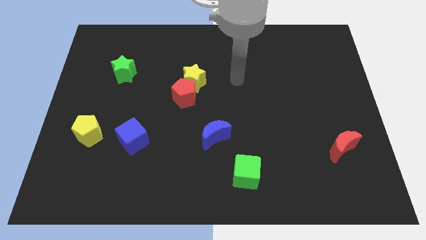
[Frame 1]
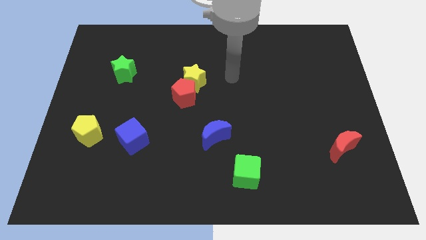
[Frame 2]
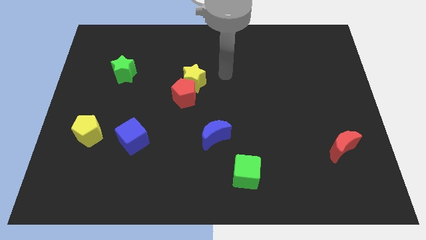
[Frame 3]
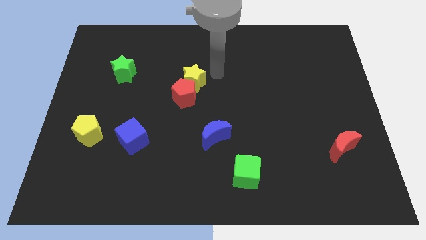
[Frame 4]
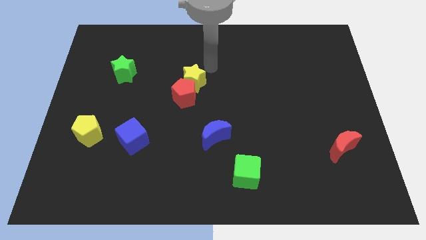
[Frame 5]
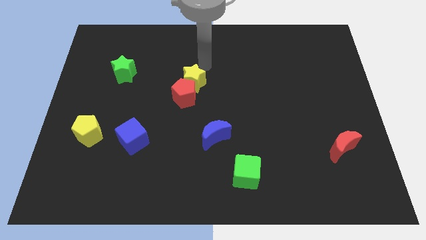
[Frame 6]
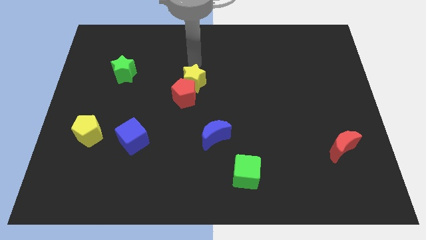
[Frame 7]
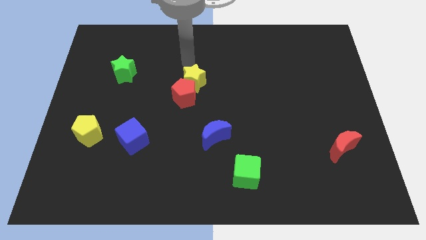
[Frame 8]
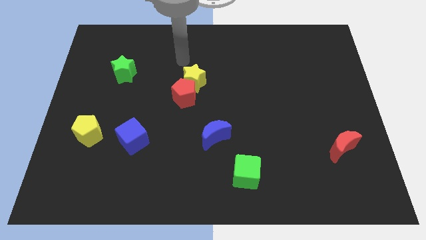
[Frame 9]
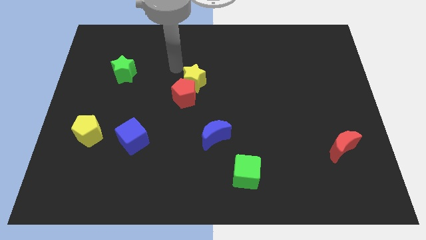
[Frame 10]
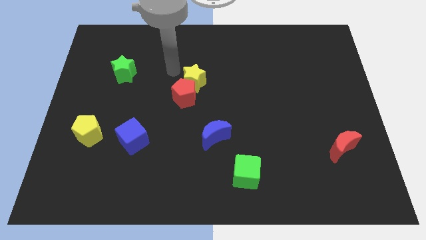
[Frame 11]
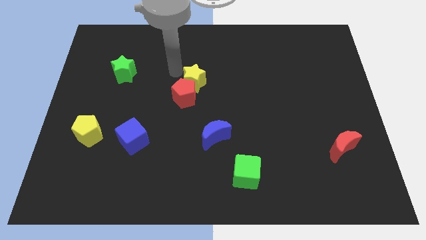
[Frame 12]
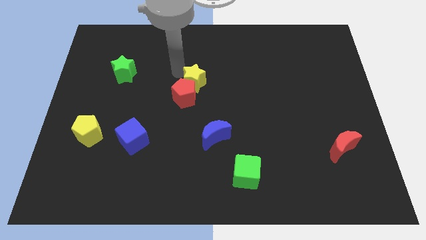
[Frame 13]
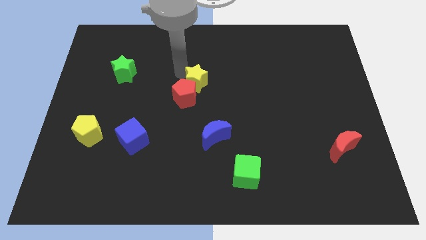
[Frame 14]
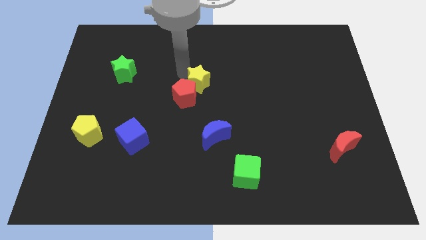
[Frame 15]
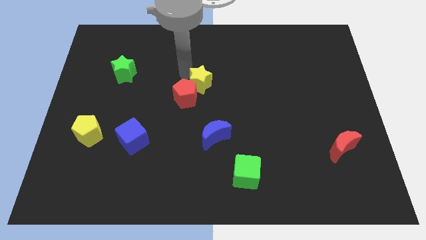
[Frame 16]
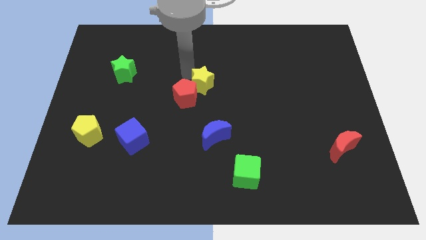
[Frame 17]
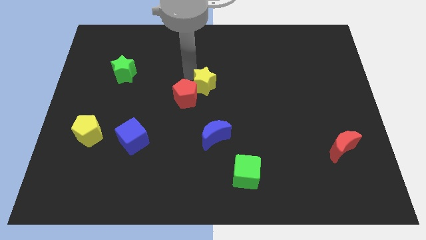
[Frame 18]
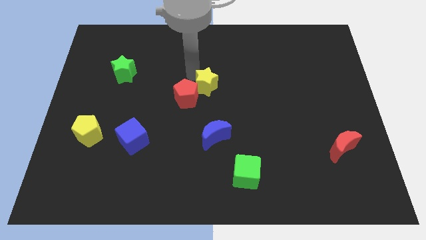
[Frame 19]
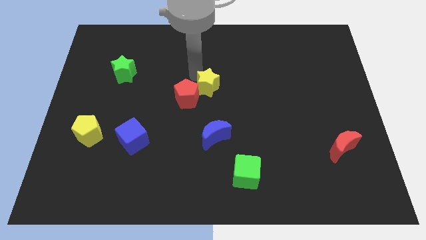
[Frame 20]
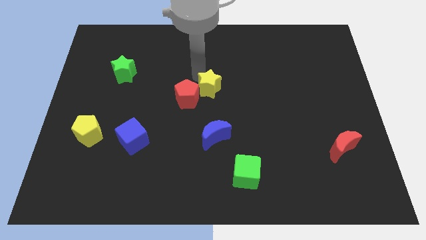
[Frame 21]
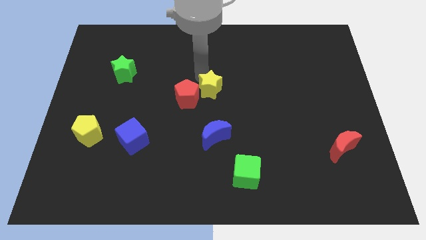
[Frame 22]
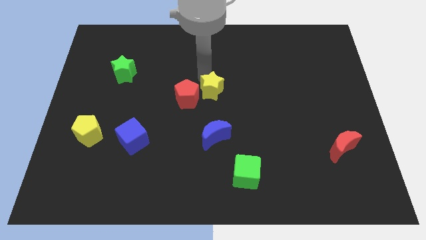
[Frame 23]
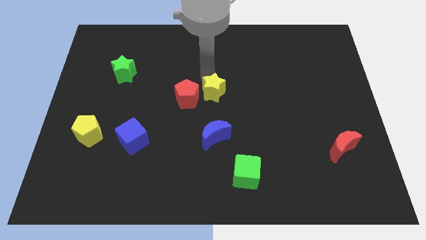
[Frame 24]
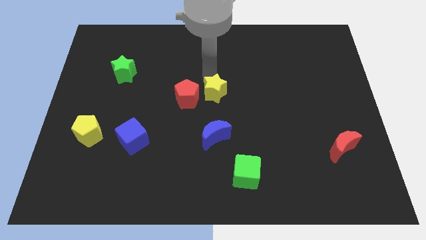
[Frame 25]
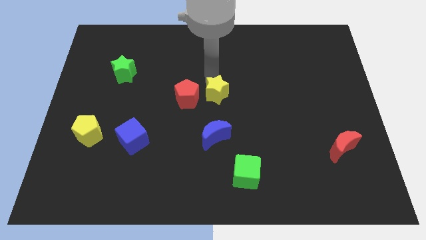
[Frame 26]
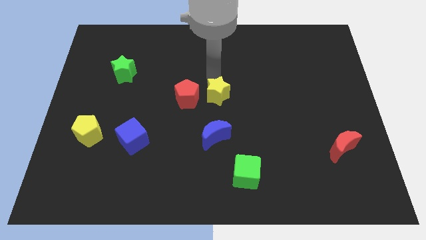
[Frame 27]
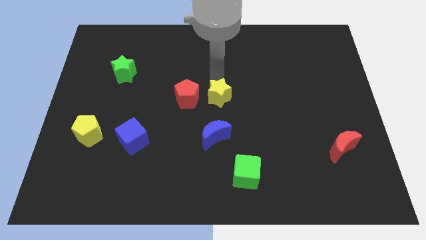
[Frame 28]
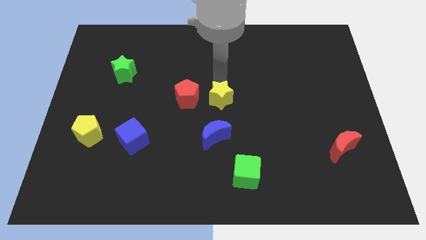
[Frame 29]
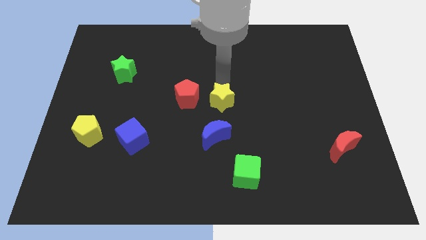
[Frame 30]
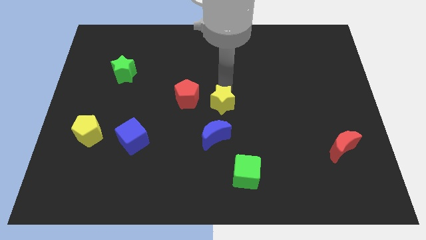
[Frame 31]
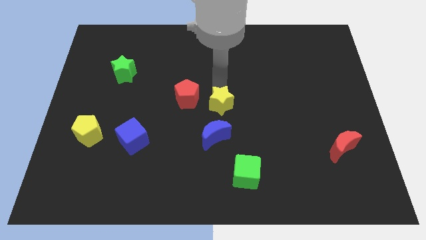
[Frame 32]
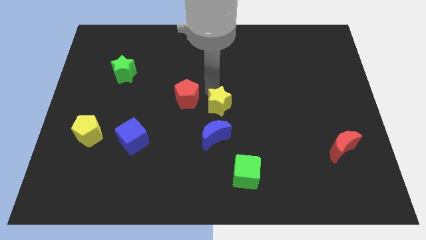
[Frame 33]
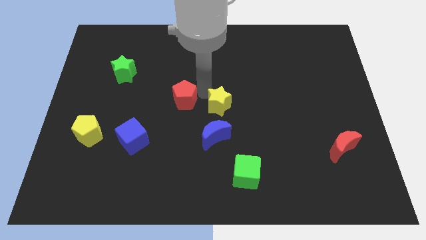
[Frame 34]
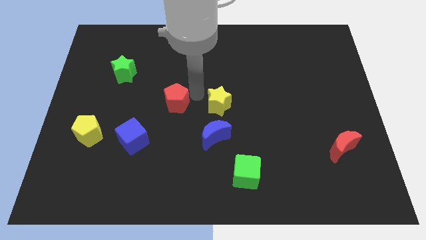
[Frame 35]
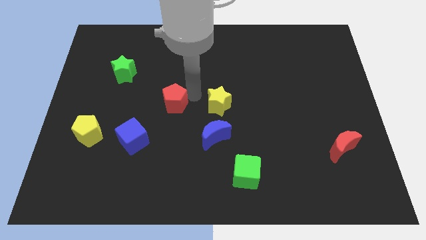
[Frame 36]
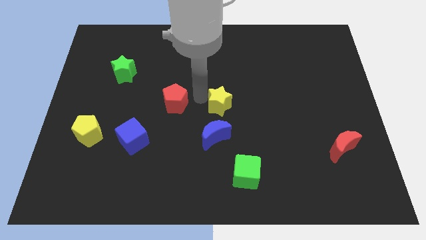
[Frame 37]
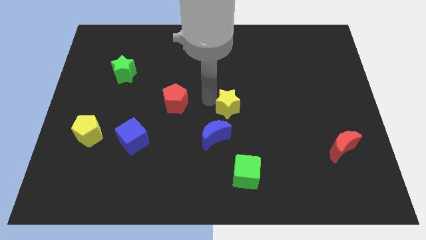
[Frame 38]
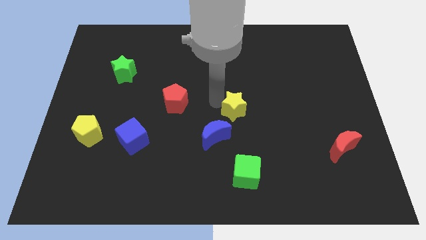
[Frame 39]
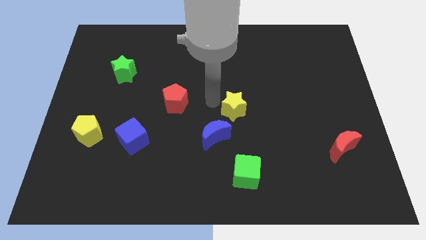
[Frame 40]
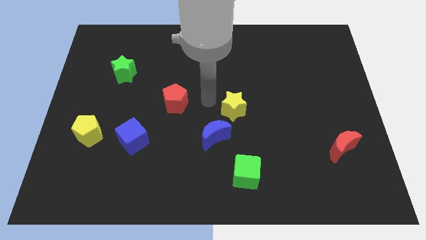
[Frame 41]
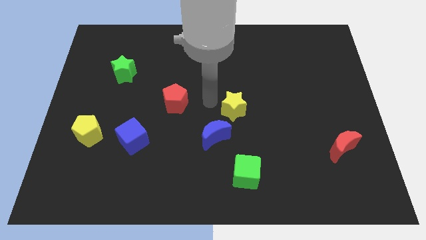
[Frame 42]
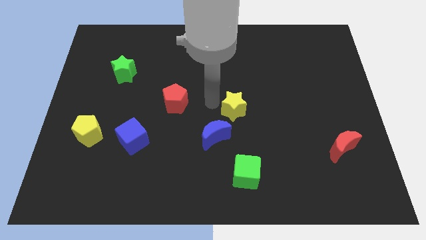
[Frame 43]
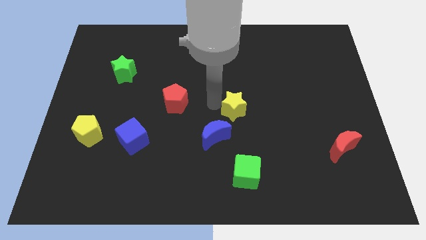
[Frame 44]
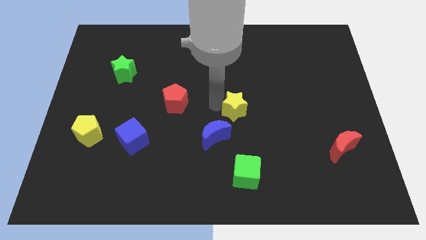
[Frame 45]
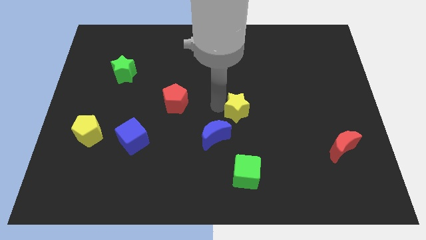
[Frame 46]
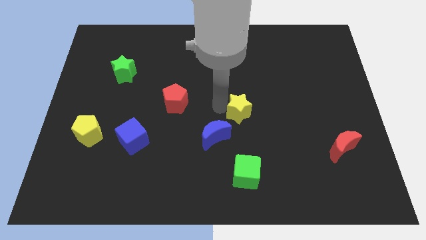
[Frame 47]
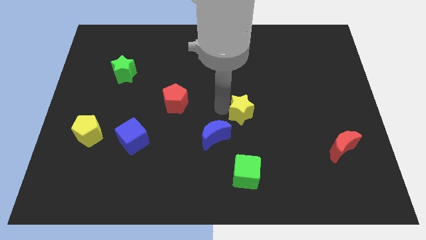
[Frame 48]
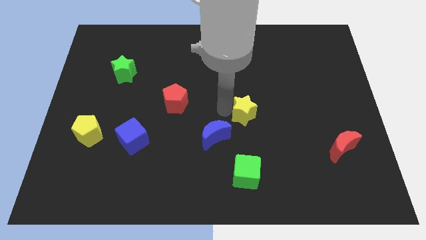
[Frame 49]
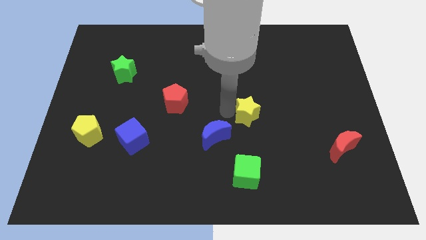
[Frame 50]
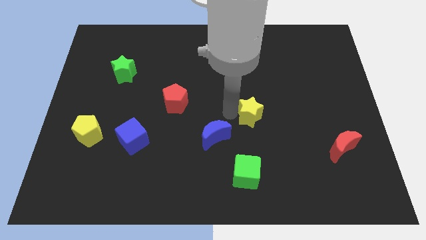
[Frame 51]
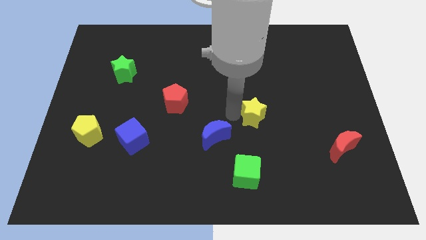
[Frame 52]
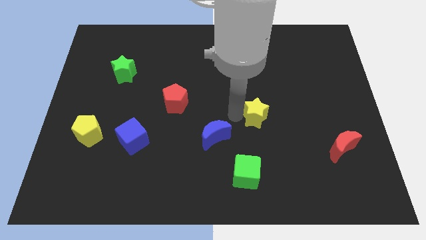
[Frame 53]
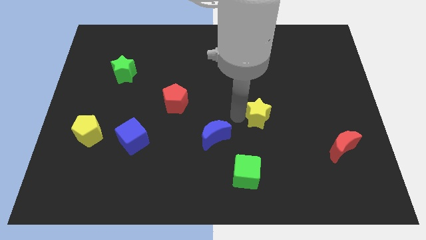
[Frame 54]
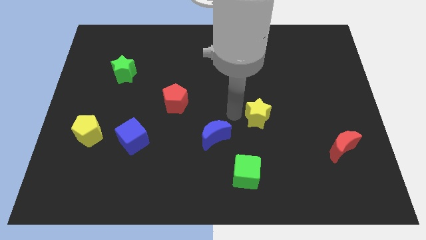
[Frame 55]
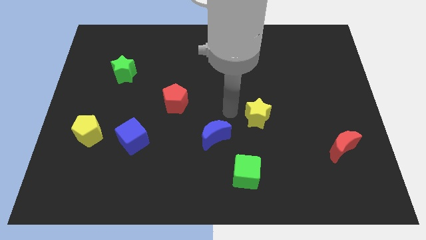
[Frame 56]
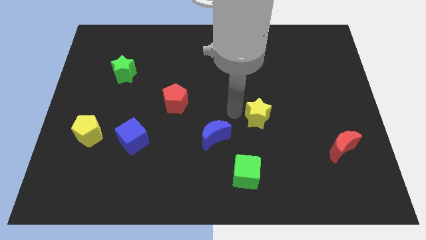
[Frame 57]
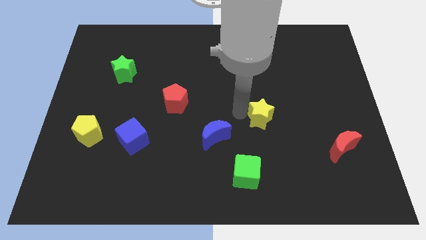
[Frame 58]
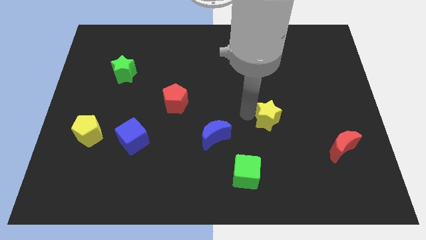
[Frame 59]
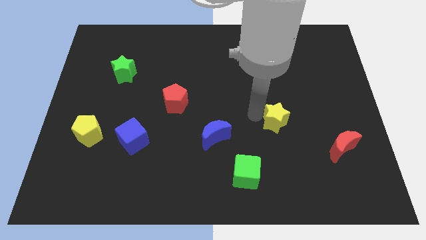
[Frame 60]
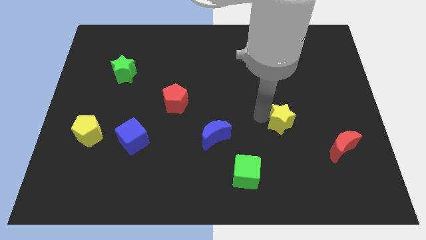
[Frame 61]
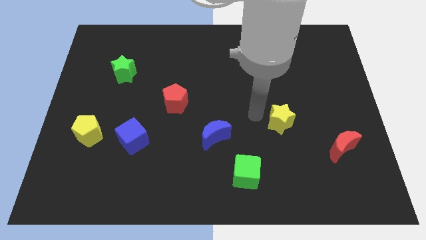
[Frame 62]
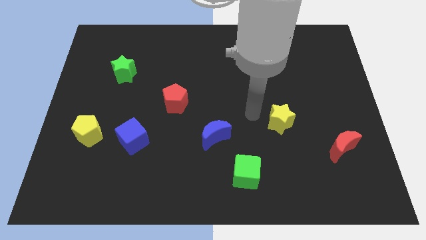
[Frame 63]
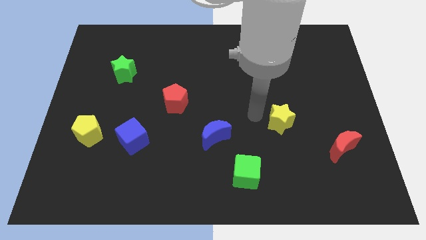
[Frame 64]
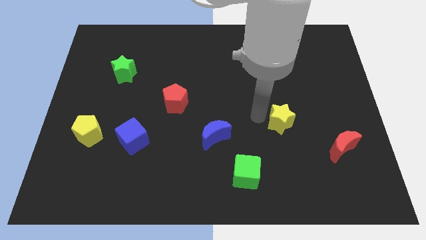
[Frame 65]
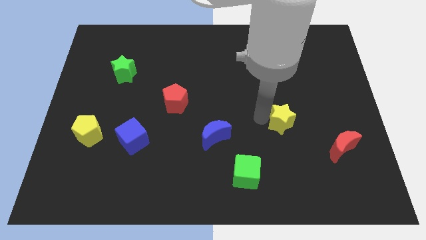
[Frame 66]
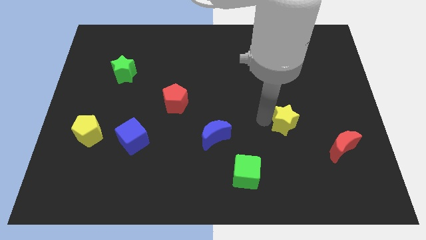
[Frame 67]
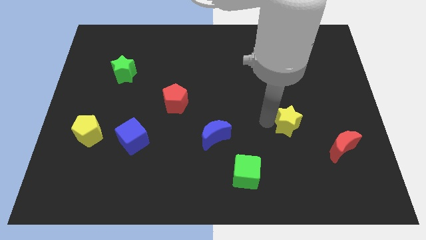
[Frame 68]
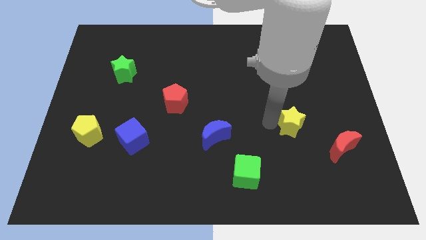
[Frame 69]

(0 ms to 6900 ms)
push the yellow star diagonally up and to the left of the red moon

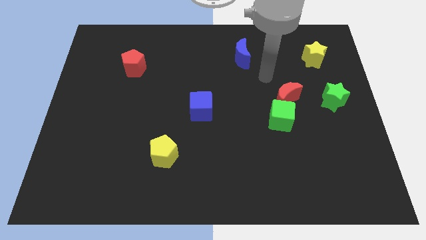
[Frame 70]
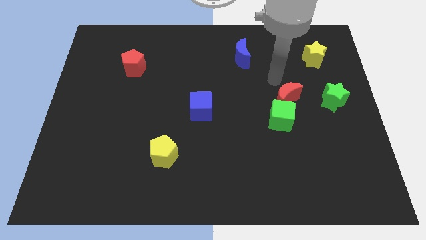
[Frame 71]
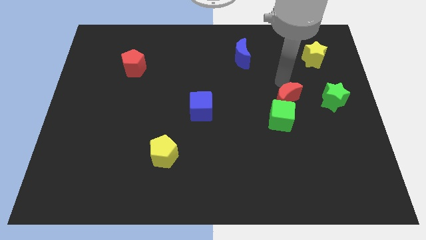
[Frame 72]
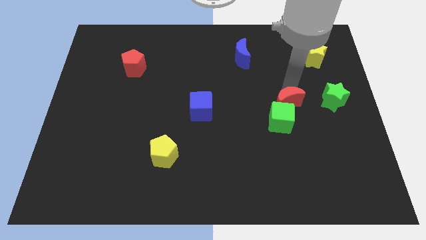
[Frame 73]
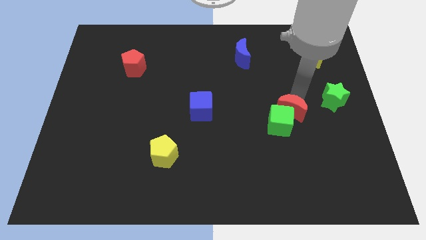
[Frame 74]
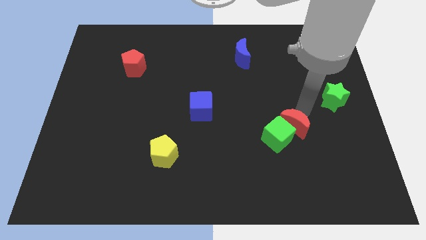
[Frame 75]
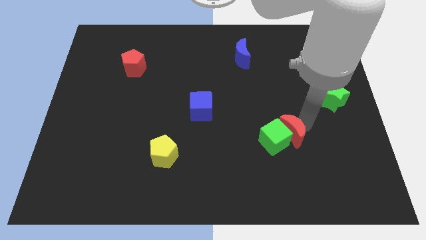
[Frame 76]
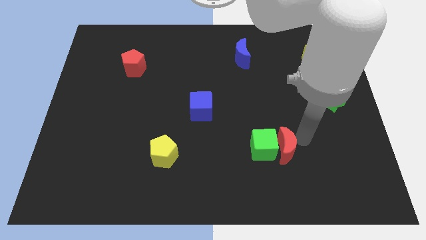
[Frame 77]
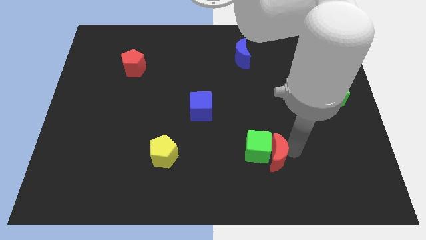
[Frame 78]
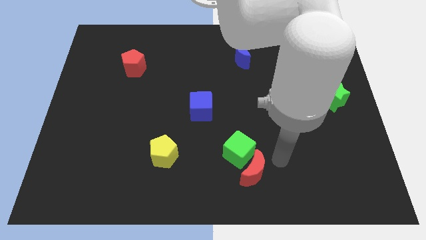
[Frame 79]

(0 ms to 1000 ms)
slide the green cube to the right side of the yellow pentagon
